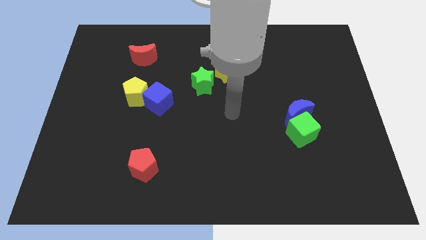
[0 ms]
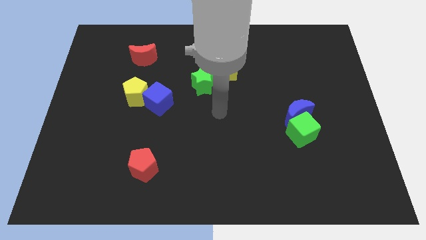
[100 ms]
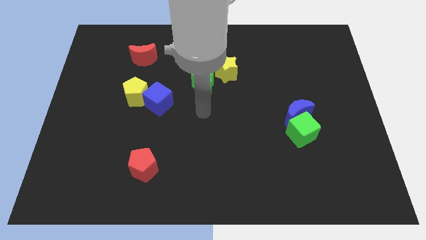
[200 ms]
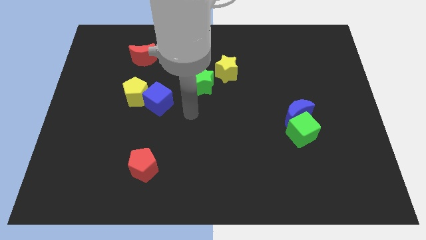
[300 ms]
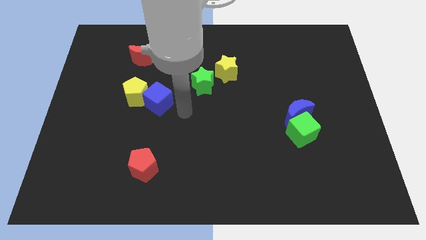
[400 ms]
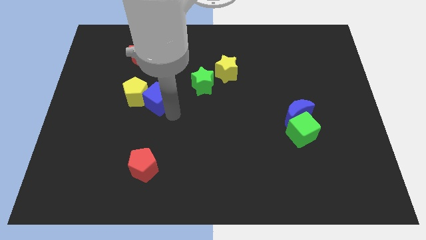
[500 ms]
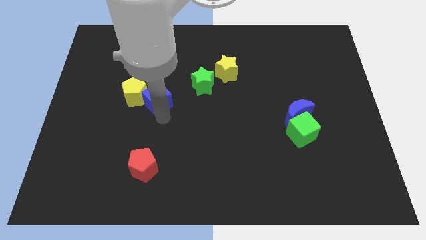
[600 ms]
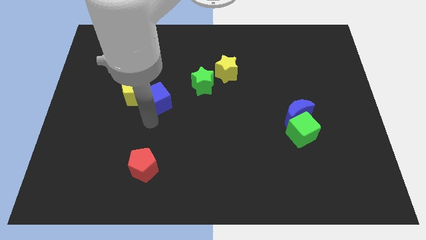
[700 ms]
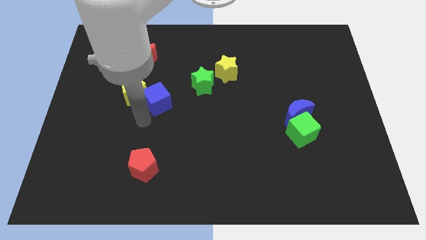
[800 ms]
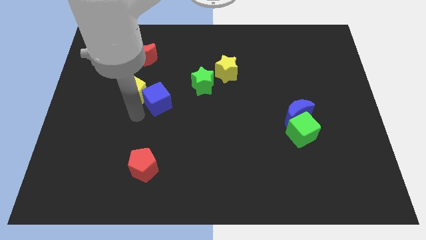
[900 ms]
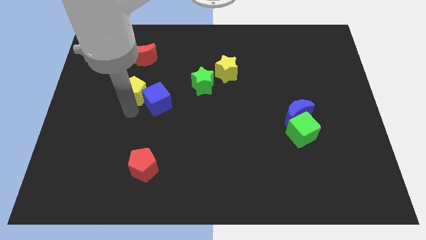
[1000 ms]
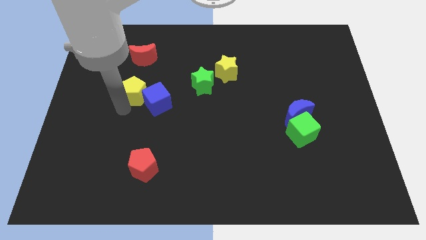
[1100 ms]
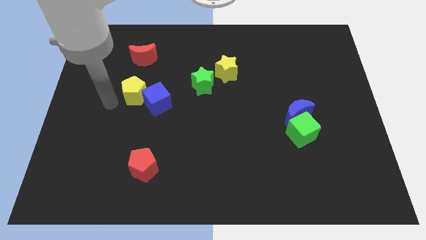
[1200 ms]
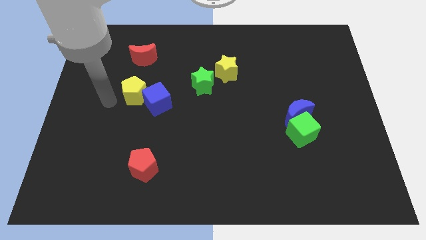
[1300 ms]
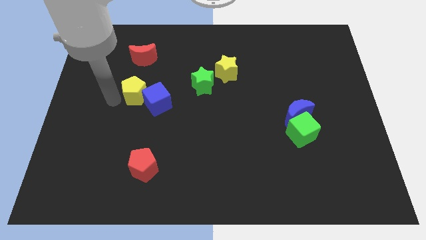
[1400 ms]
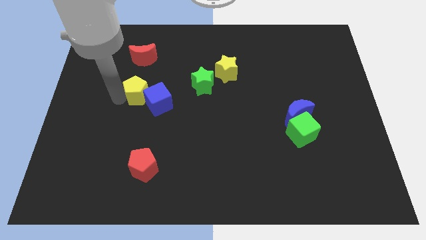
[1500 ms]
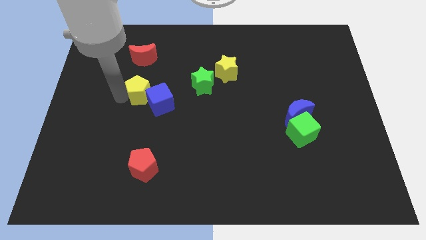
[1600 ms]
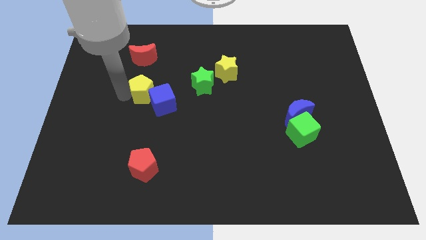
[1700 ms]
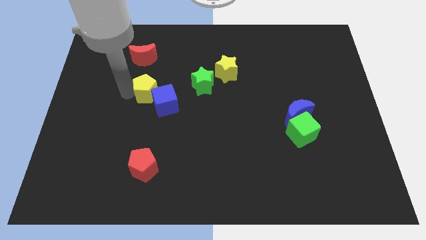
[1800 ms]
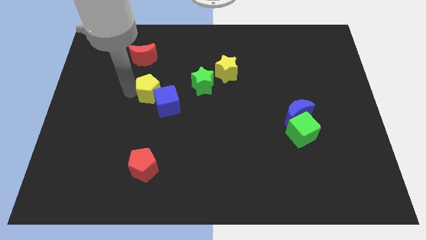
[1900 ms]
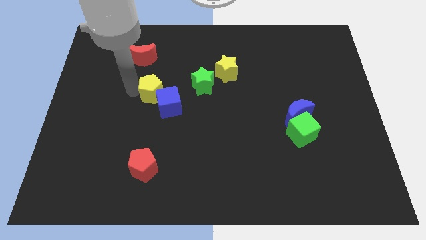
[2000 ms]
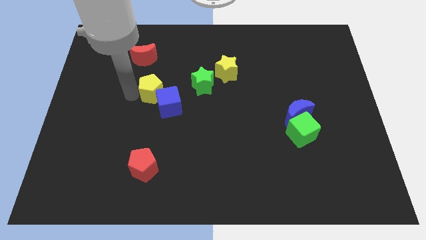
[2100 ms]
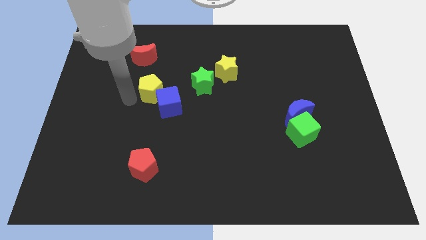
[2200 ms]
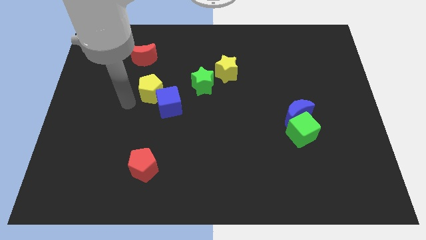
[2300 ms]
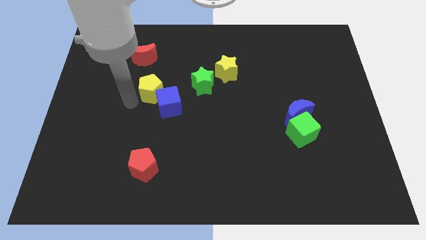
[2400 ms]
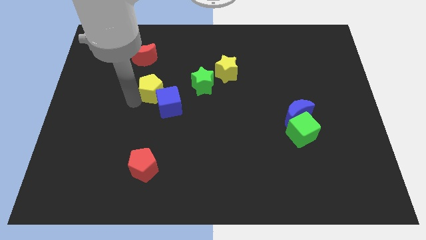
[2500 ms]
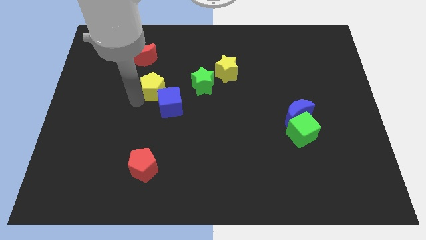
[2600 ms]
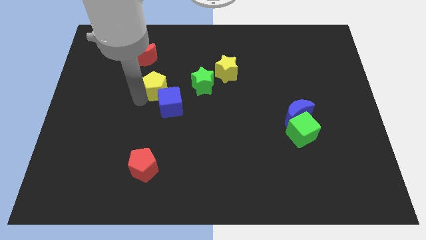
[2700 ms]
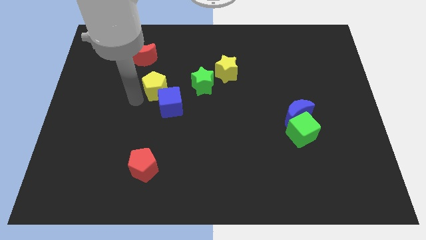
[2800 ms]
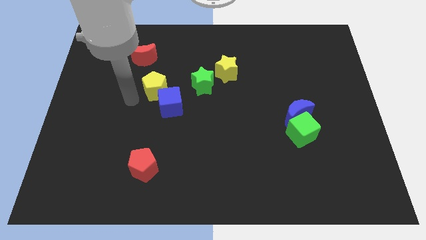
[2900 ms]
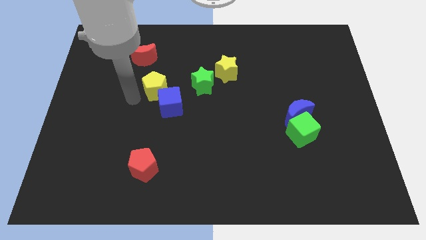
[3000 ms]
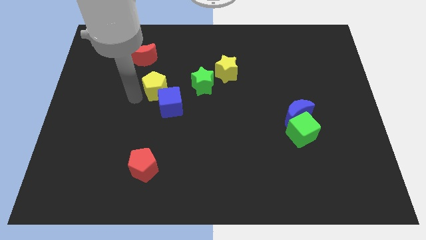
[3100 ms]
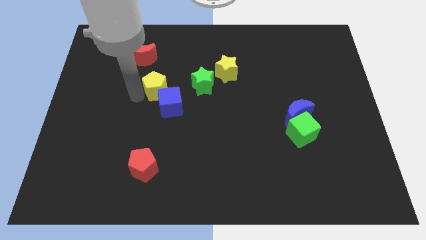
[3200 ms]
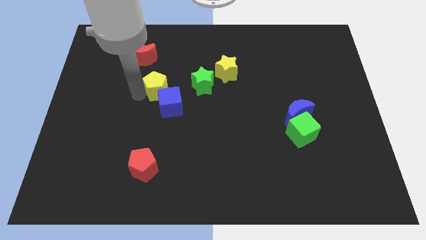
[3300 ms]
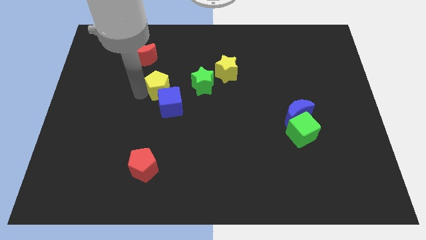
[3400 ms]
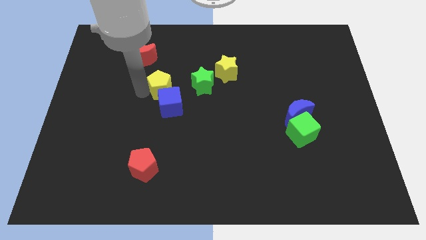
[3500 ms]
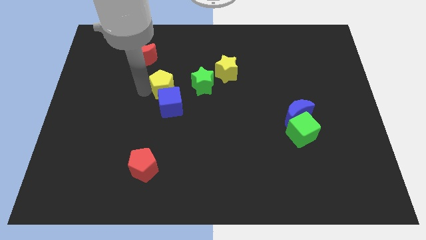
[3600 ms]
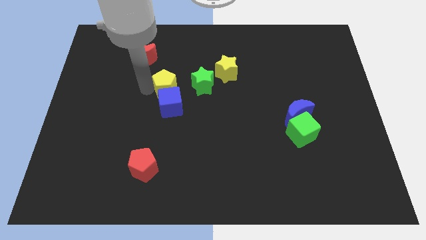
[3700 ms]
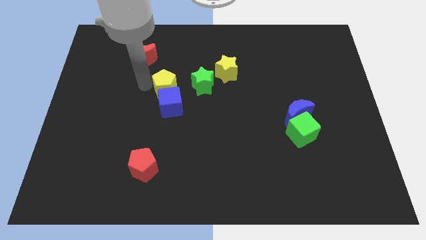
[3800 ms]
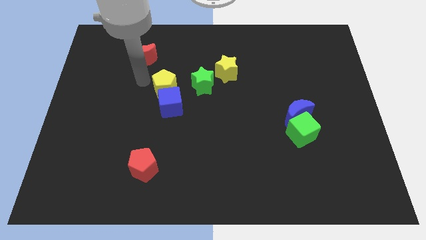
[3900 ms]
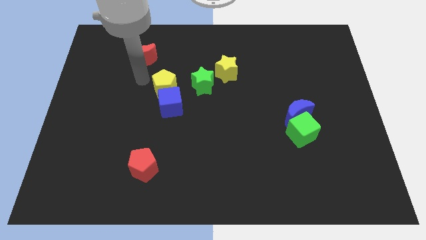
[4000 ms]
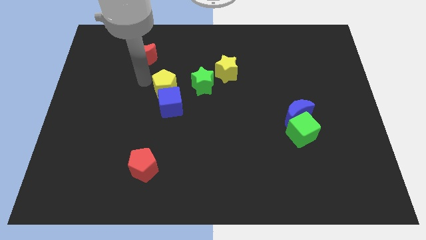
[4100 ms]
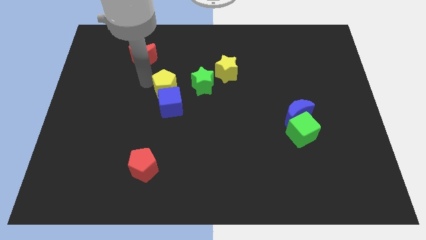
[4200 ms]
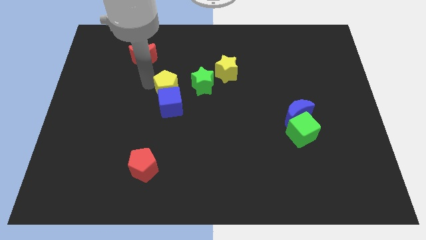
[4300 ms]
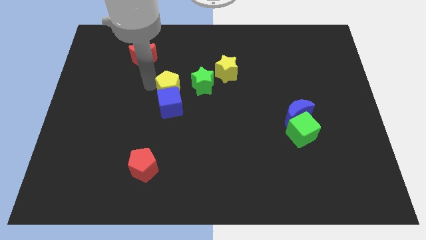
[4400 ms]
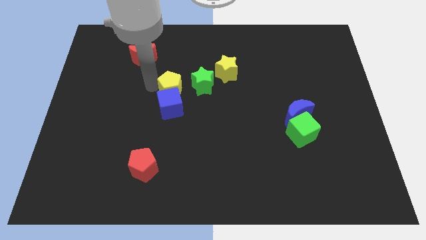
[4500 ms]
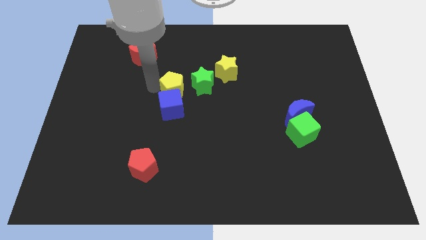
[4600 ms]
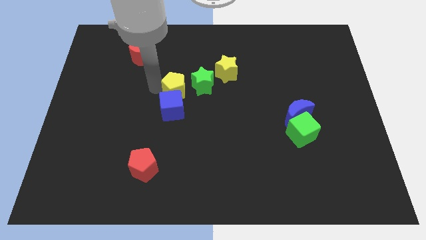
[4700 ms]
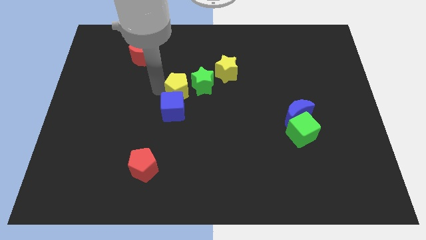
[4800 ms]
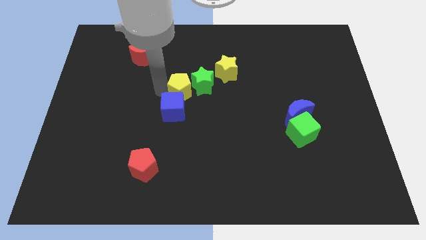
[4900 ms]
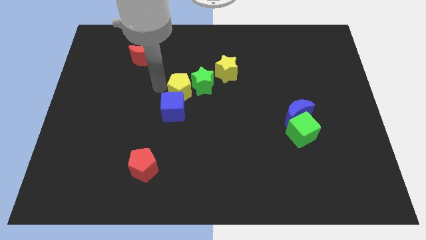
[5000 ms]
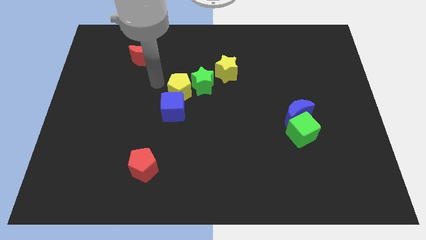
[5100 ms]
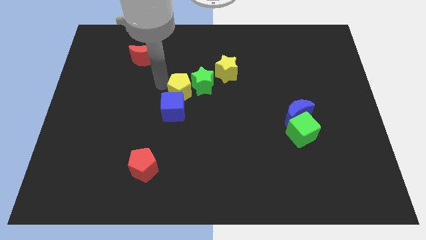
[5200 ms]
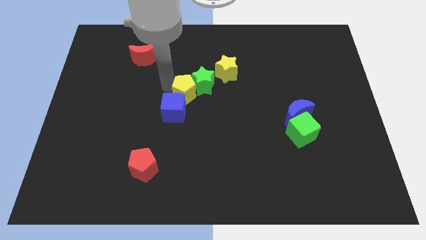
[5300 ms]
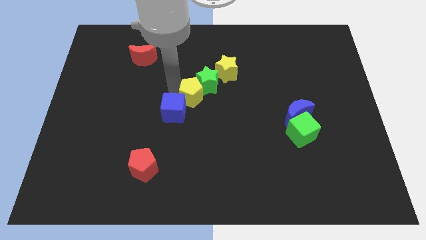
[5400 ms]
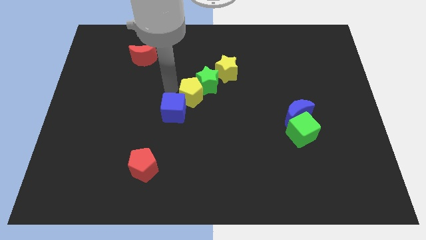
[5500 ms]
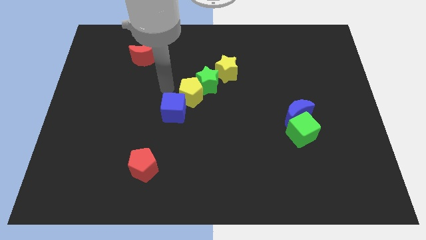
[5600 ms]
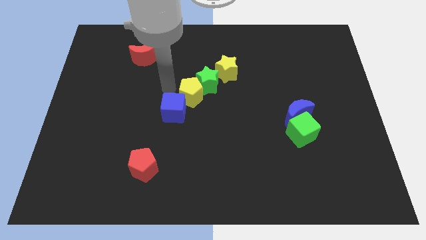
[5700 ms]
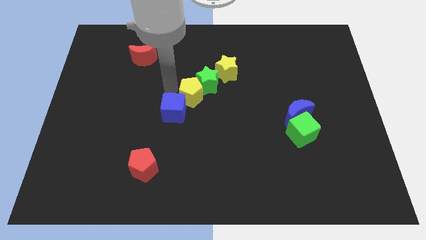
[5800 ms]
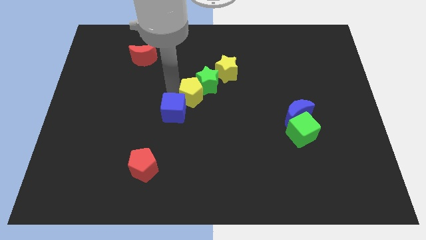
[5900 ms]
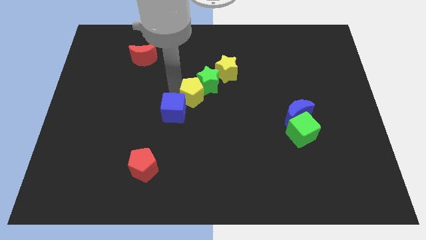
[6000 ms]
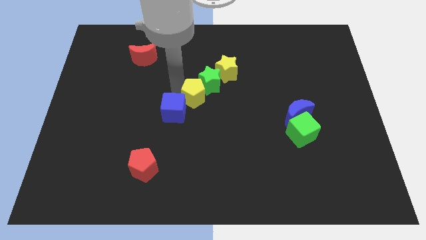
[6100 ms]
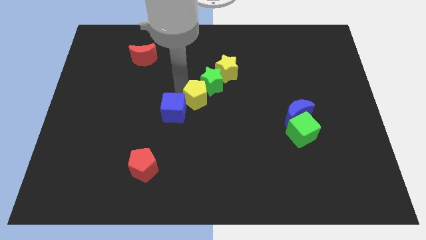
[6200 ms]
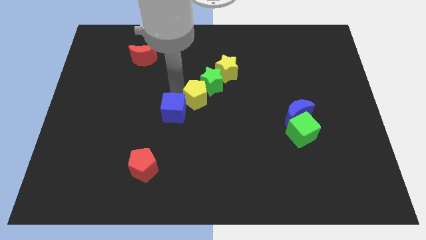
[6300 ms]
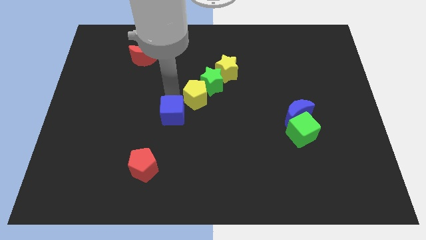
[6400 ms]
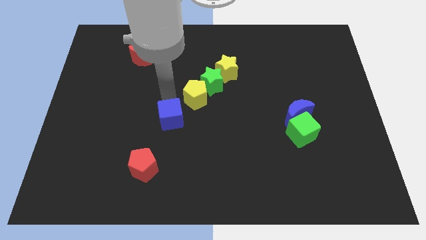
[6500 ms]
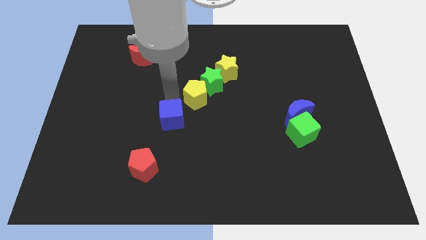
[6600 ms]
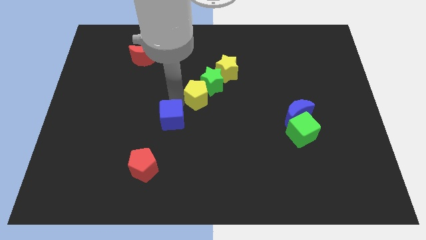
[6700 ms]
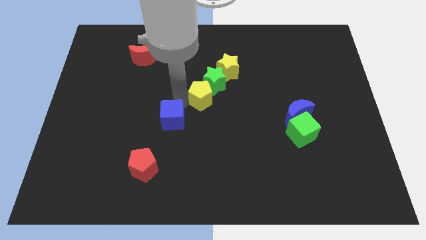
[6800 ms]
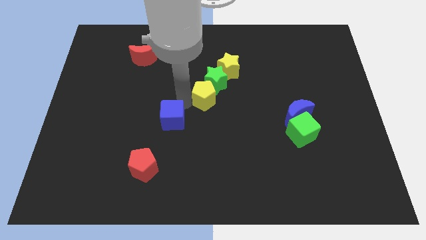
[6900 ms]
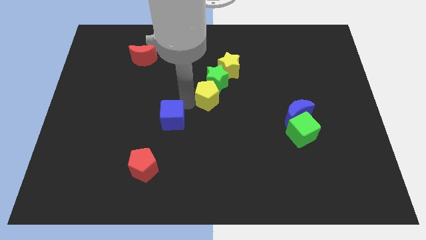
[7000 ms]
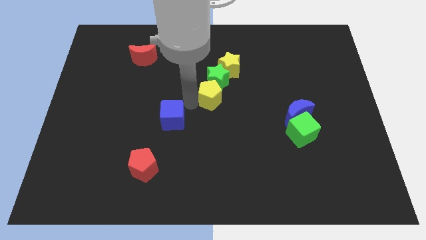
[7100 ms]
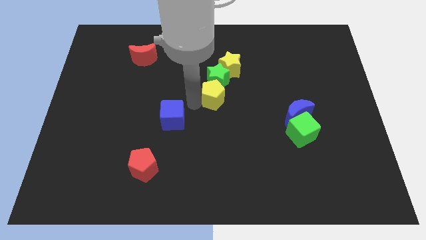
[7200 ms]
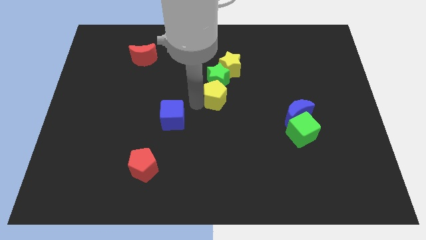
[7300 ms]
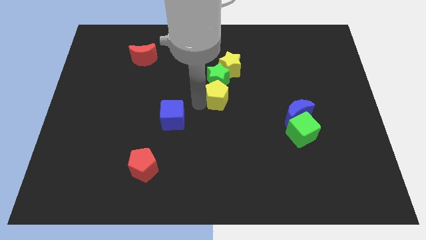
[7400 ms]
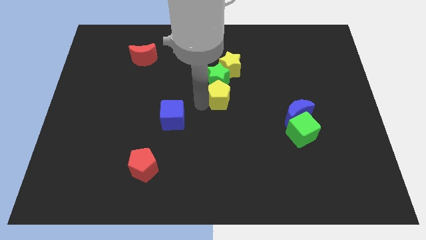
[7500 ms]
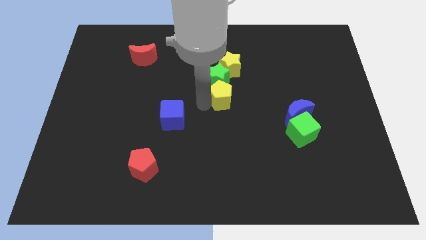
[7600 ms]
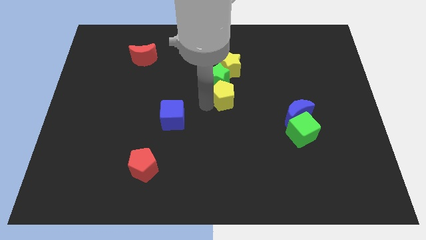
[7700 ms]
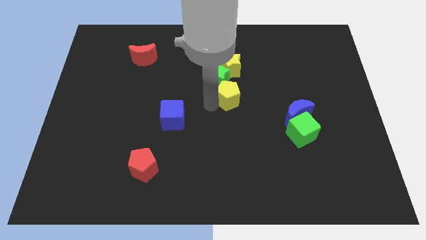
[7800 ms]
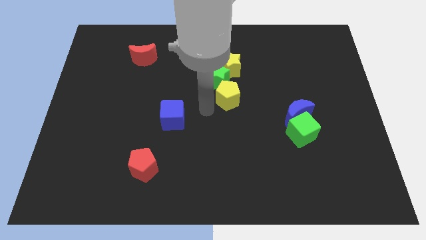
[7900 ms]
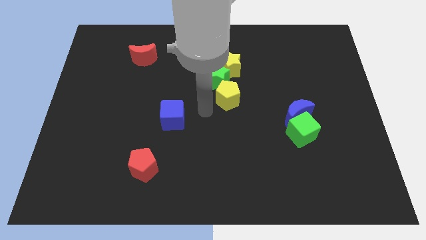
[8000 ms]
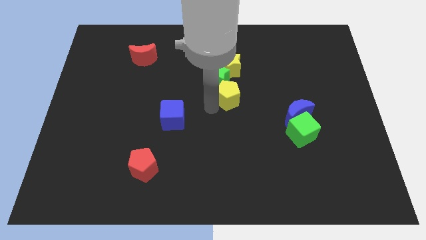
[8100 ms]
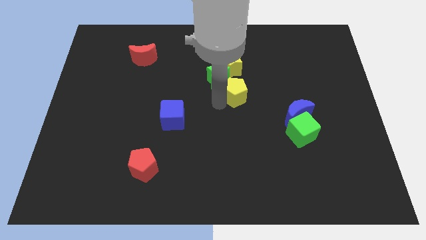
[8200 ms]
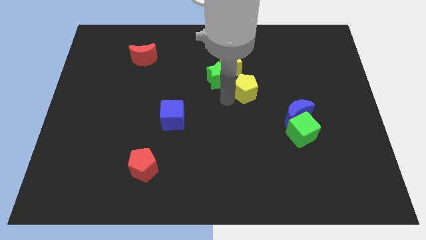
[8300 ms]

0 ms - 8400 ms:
push the yellow pentagon to the right side of the green star

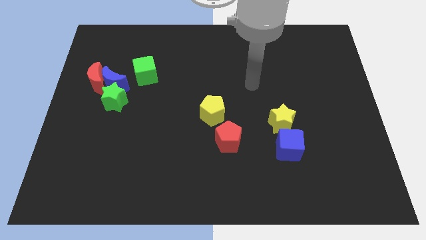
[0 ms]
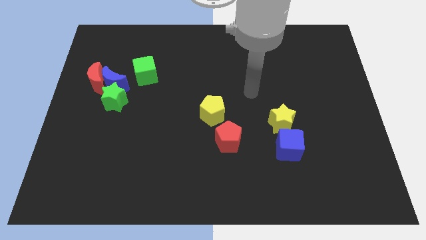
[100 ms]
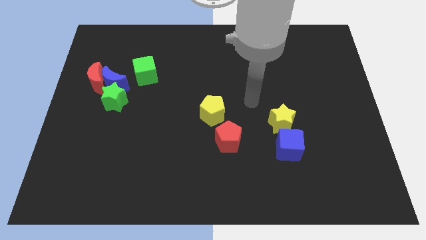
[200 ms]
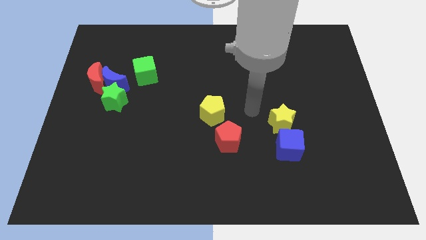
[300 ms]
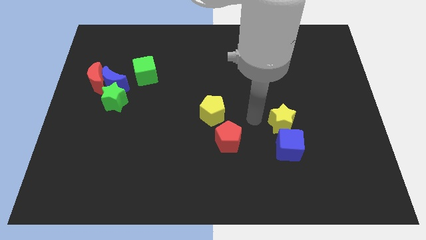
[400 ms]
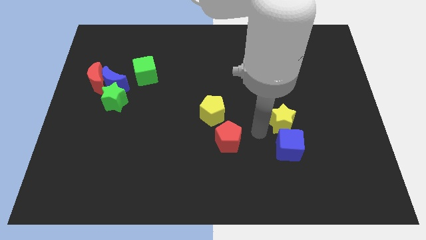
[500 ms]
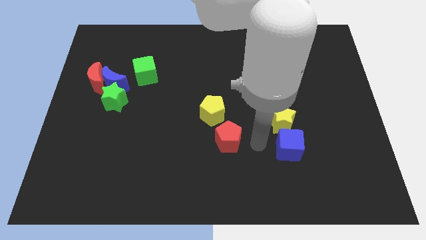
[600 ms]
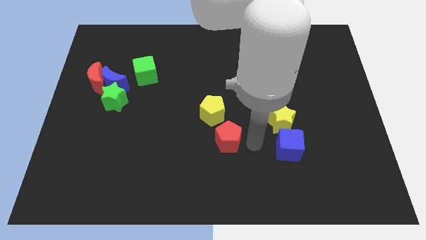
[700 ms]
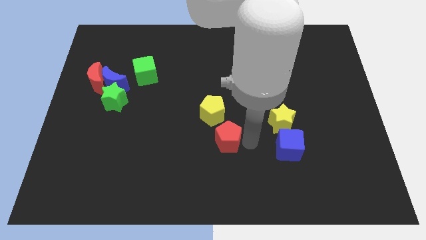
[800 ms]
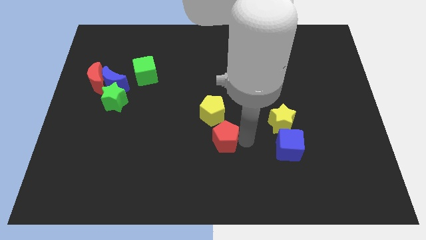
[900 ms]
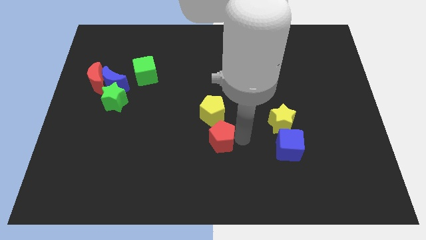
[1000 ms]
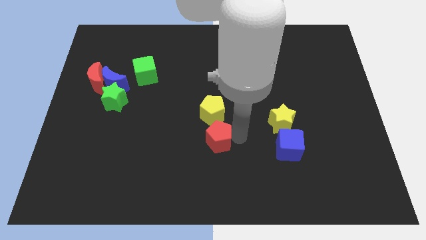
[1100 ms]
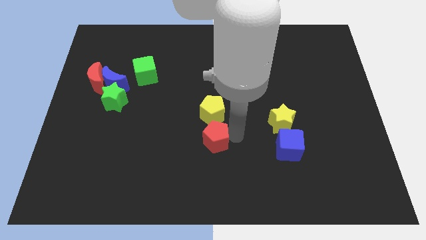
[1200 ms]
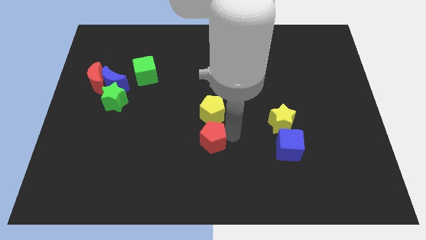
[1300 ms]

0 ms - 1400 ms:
put the red pentagon to the bottom left side of the yellow pentagon
